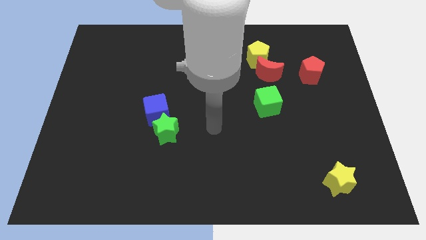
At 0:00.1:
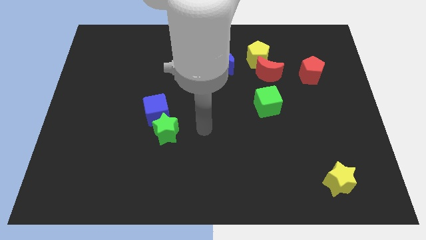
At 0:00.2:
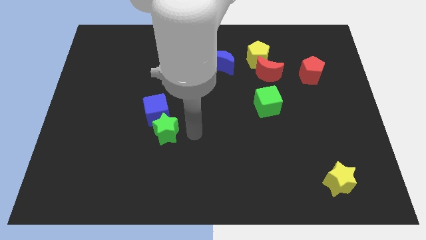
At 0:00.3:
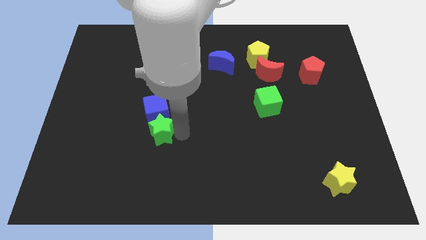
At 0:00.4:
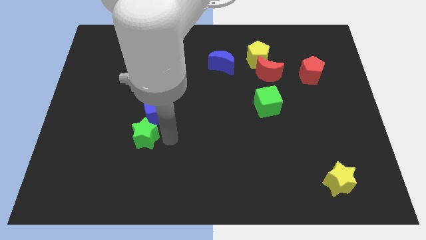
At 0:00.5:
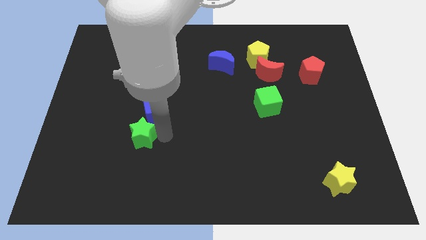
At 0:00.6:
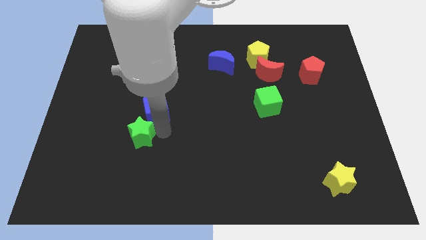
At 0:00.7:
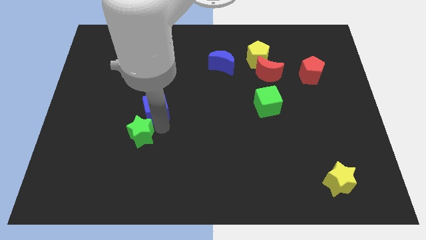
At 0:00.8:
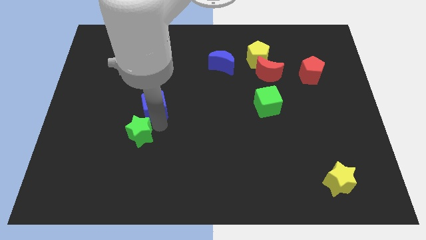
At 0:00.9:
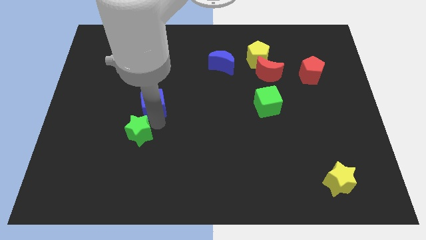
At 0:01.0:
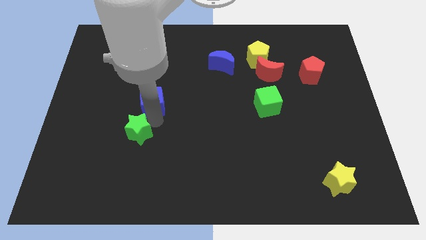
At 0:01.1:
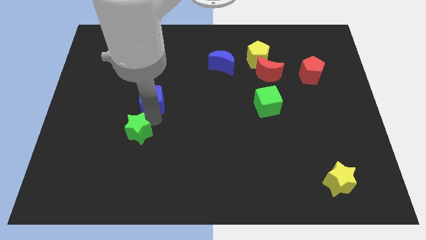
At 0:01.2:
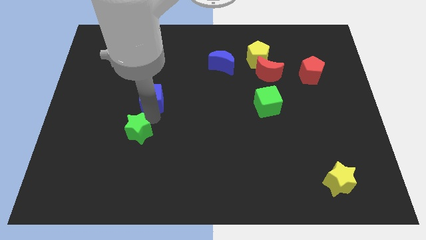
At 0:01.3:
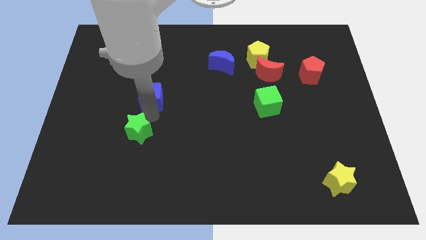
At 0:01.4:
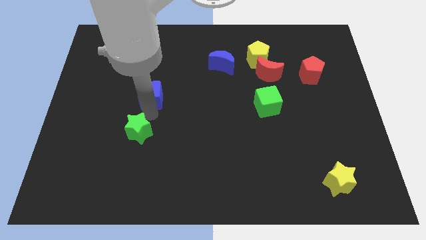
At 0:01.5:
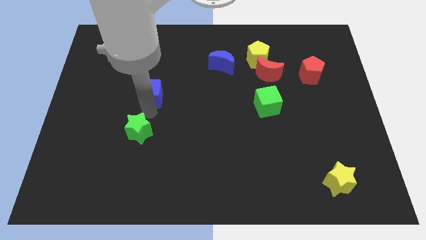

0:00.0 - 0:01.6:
move the blue cube away from the green star

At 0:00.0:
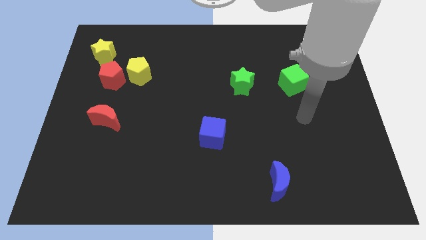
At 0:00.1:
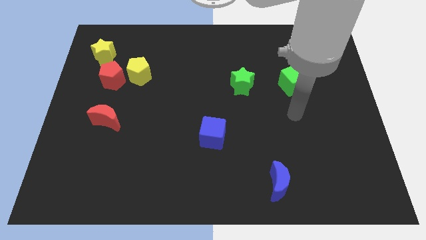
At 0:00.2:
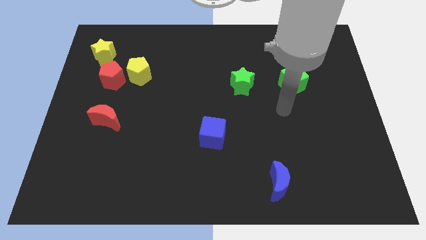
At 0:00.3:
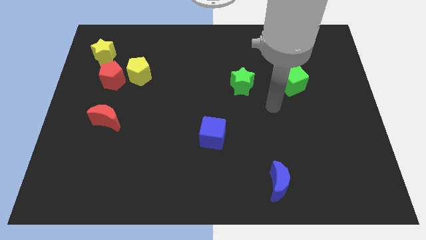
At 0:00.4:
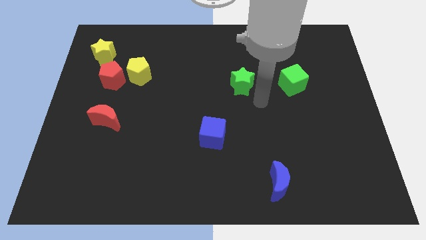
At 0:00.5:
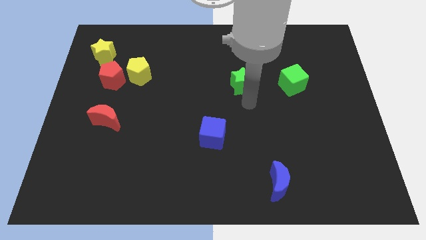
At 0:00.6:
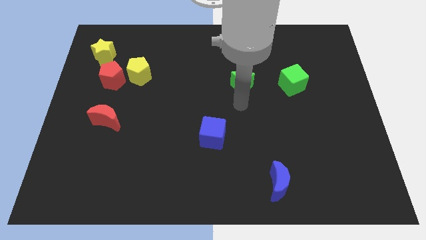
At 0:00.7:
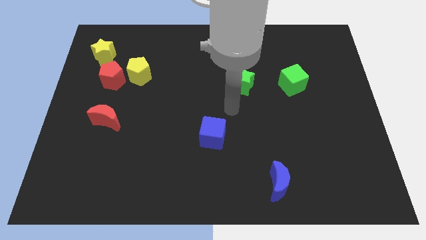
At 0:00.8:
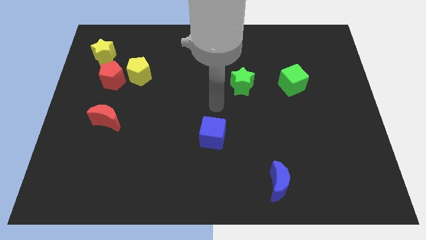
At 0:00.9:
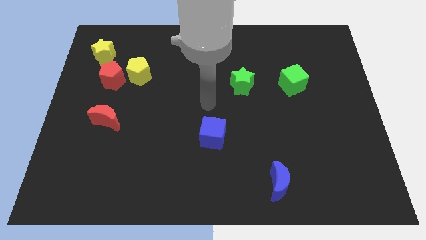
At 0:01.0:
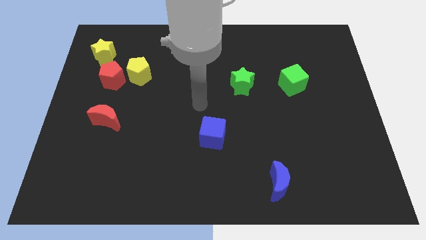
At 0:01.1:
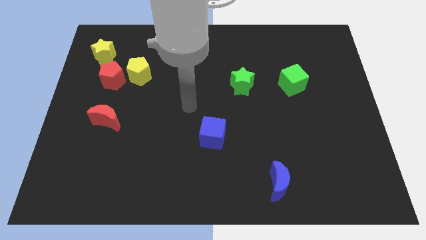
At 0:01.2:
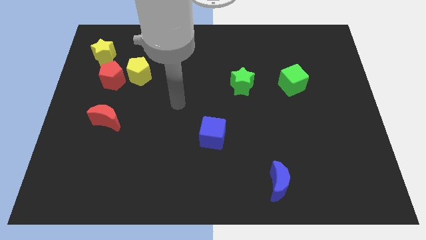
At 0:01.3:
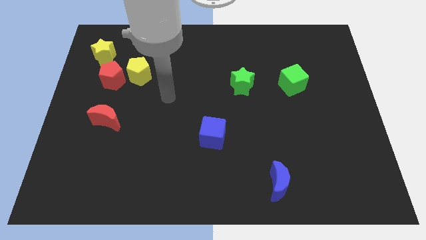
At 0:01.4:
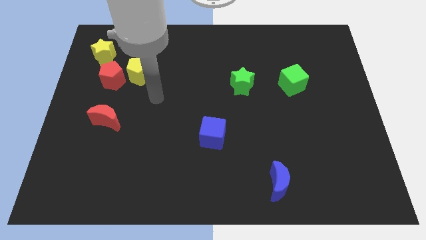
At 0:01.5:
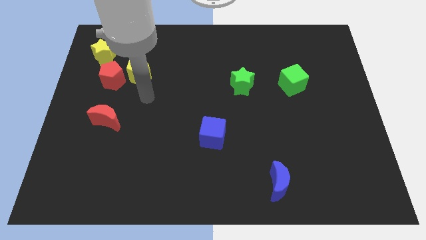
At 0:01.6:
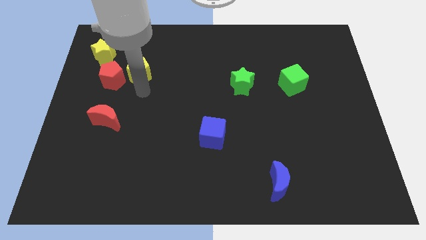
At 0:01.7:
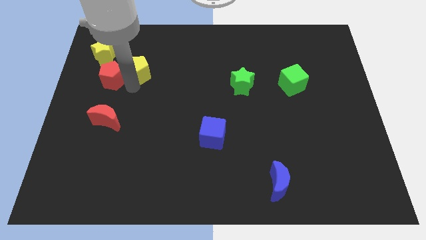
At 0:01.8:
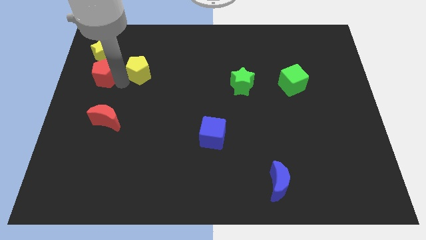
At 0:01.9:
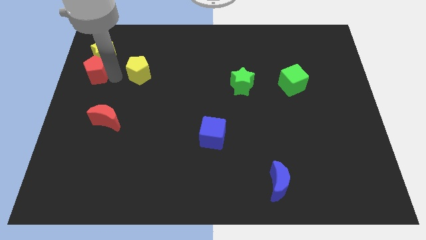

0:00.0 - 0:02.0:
separate the yellow pentagon from the red pentagon

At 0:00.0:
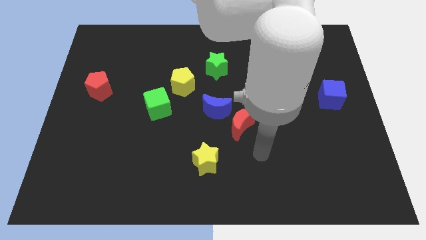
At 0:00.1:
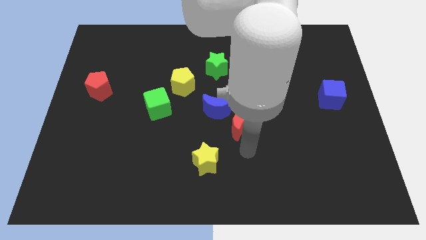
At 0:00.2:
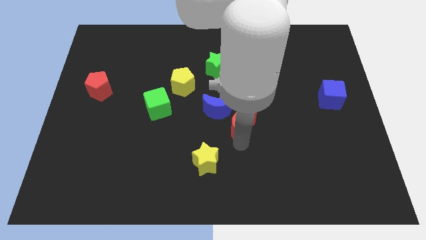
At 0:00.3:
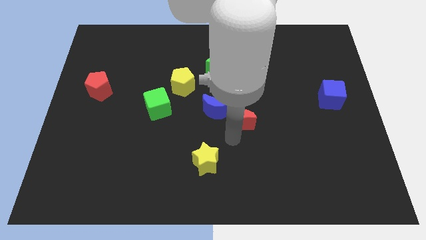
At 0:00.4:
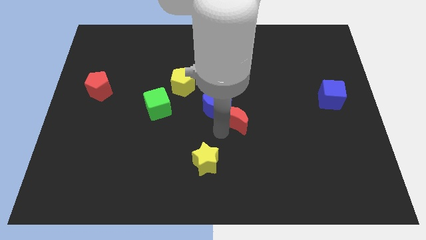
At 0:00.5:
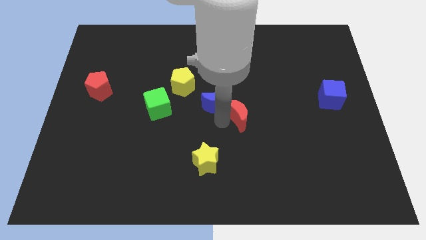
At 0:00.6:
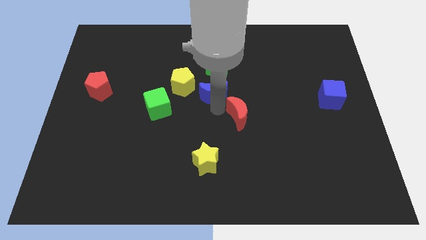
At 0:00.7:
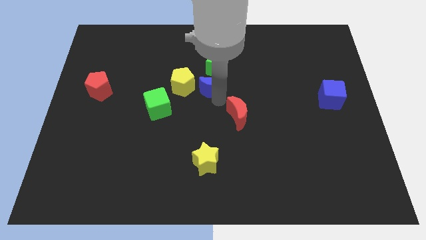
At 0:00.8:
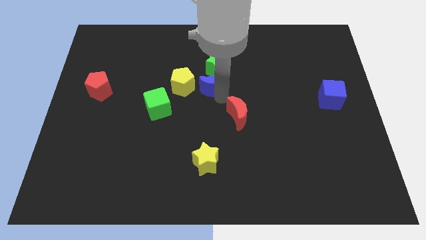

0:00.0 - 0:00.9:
pull the red moon apart from the blue moon

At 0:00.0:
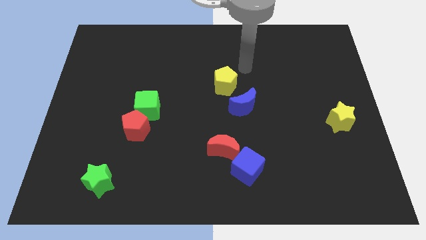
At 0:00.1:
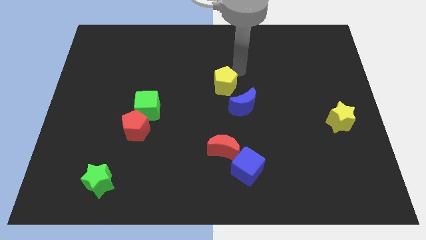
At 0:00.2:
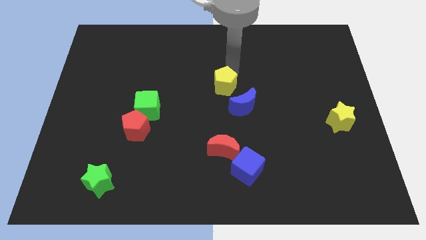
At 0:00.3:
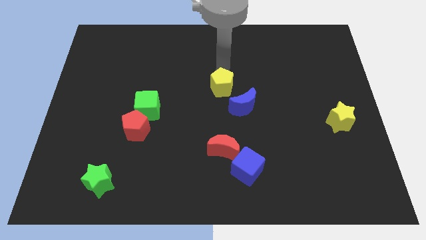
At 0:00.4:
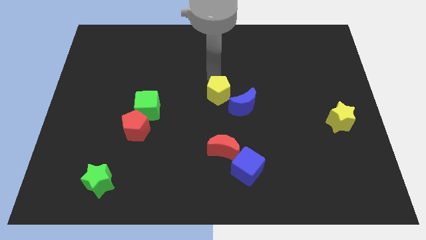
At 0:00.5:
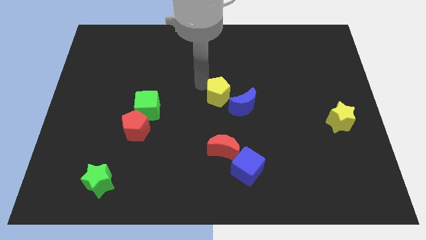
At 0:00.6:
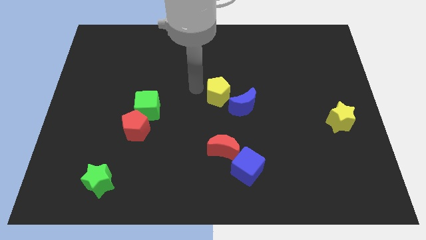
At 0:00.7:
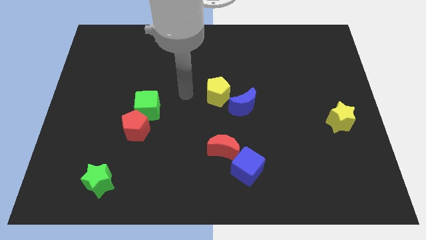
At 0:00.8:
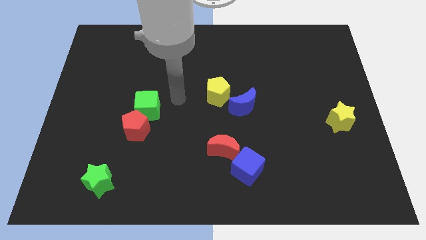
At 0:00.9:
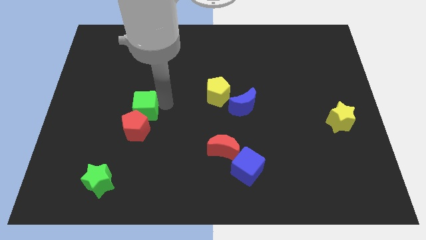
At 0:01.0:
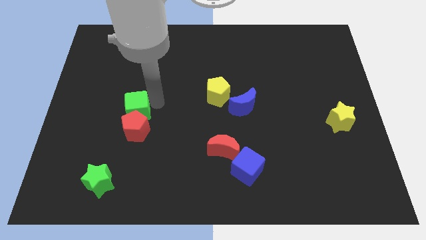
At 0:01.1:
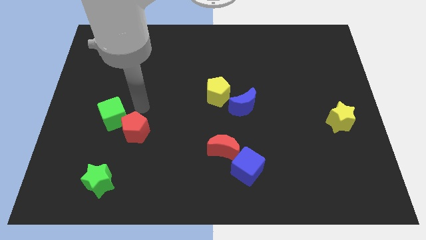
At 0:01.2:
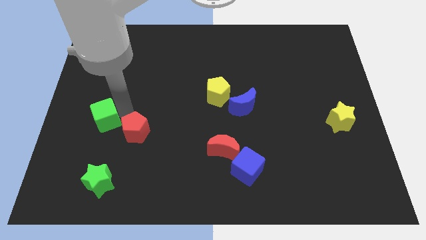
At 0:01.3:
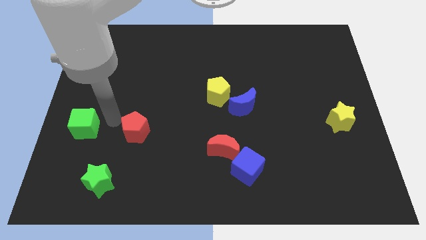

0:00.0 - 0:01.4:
pull the red pentagon apart from the green cube

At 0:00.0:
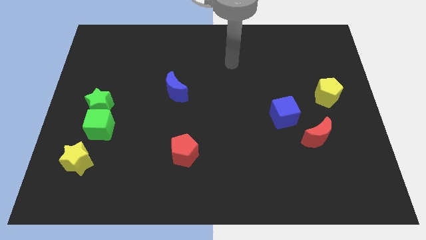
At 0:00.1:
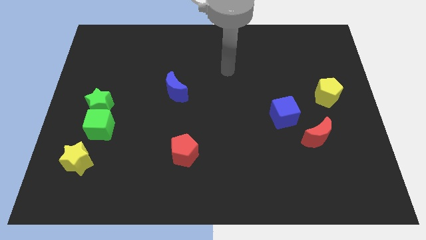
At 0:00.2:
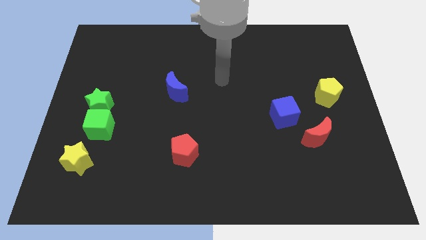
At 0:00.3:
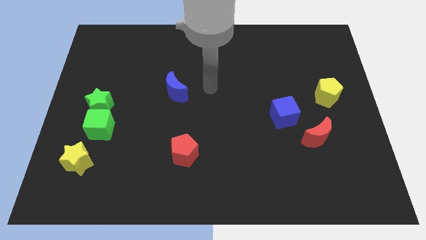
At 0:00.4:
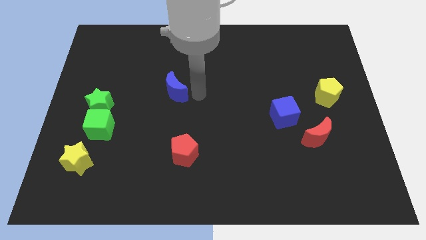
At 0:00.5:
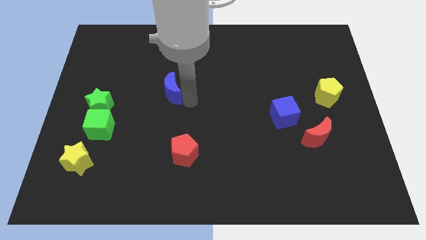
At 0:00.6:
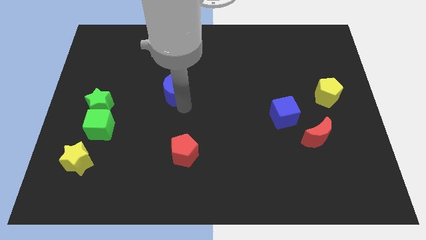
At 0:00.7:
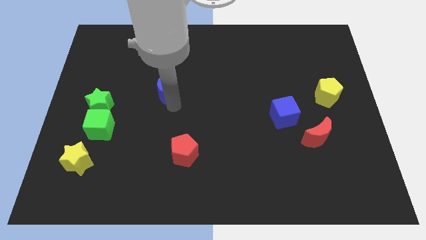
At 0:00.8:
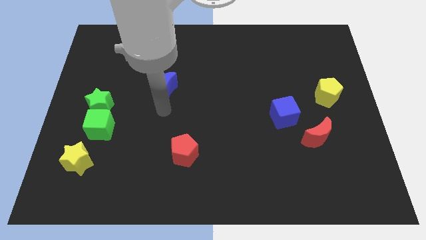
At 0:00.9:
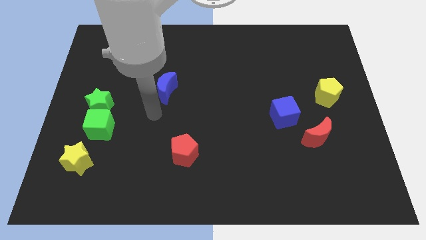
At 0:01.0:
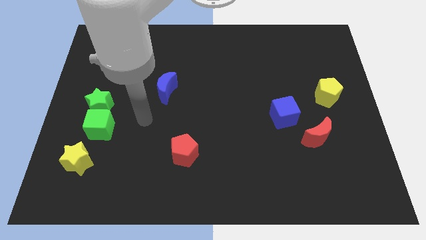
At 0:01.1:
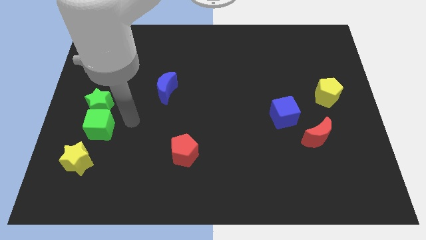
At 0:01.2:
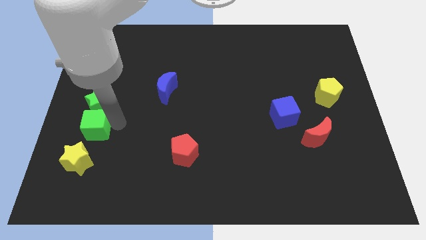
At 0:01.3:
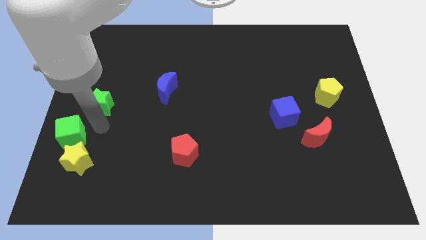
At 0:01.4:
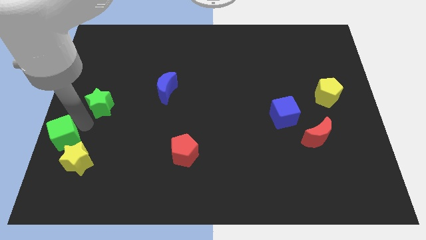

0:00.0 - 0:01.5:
separate the green star from the green cube

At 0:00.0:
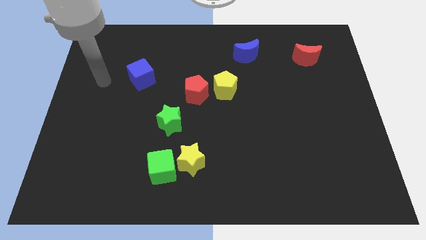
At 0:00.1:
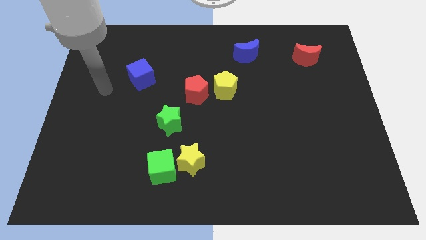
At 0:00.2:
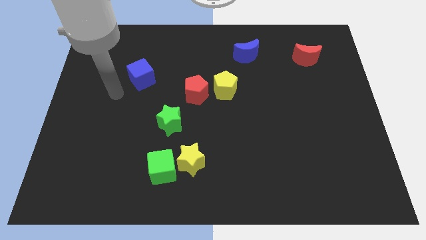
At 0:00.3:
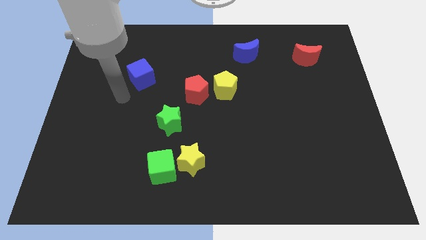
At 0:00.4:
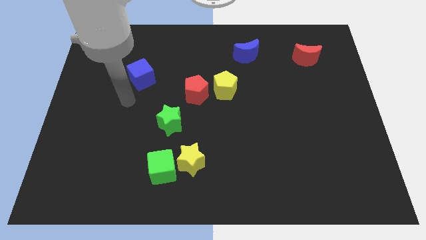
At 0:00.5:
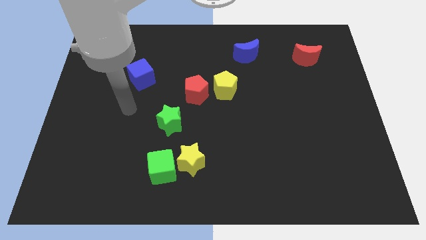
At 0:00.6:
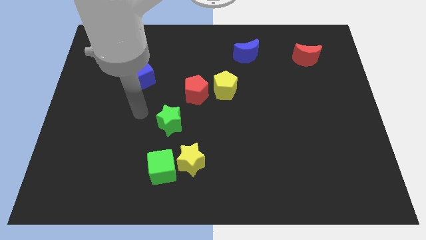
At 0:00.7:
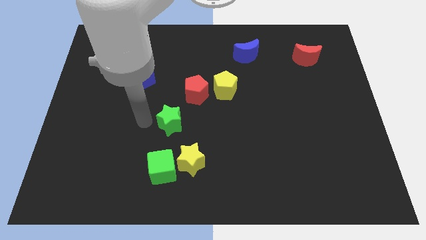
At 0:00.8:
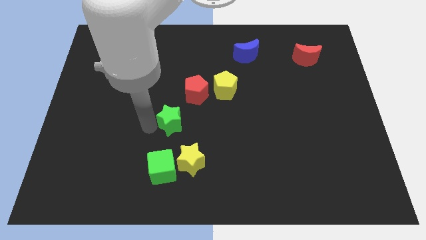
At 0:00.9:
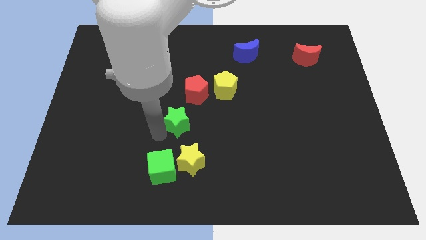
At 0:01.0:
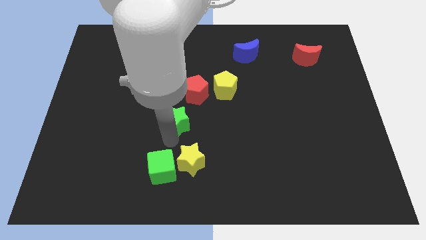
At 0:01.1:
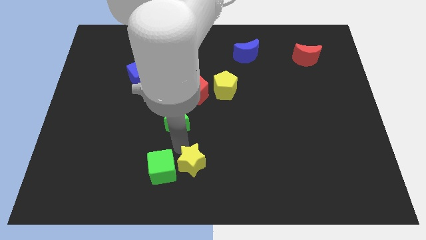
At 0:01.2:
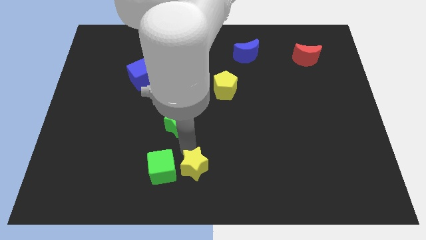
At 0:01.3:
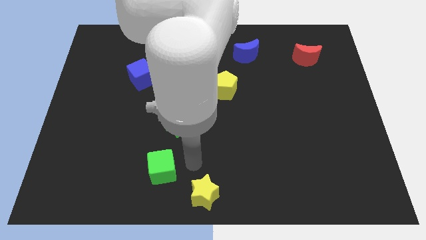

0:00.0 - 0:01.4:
pull the green cube apart from the yellow star

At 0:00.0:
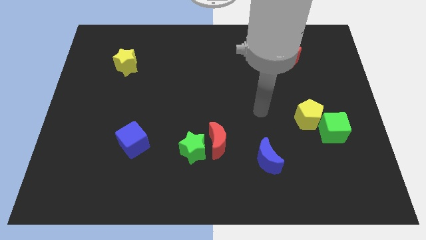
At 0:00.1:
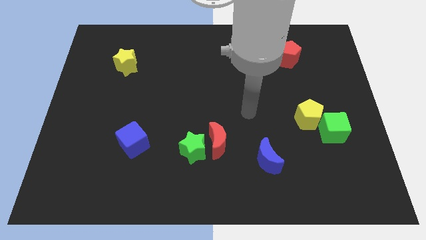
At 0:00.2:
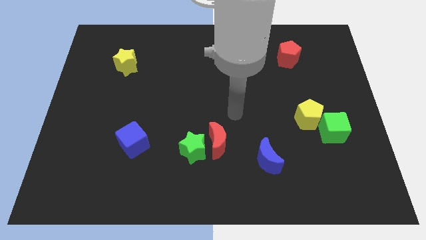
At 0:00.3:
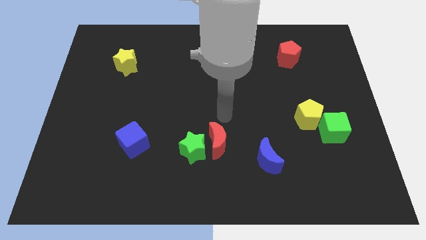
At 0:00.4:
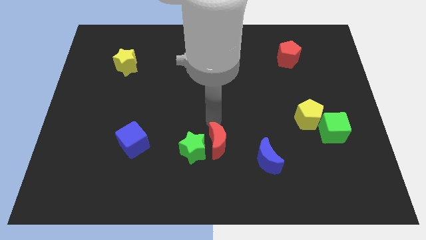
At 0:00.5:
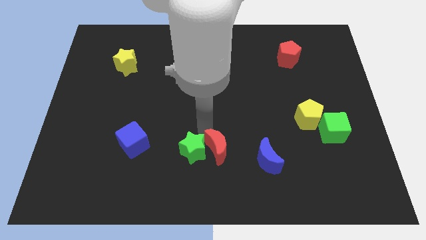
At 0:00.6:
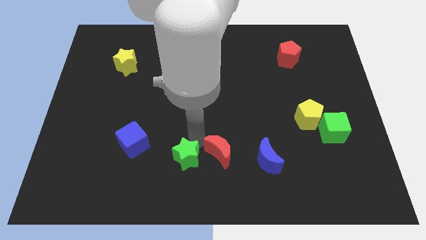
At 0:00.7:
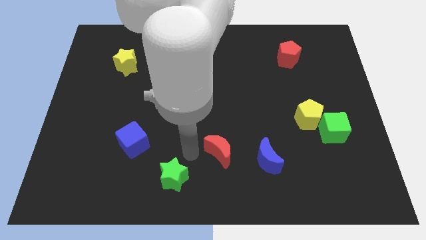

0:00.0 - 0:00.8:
separate the red moon from the green star
